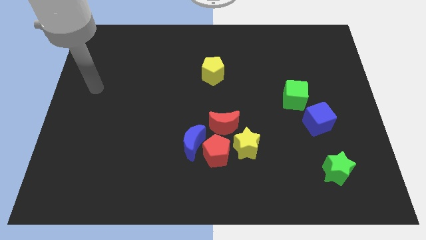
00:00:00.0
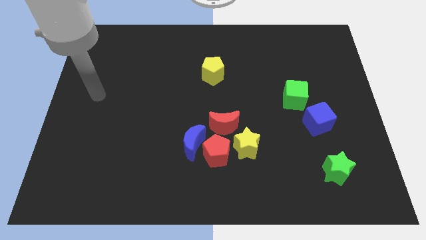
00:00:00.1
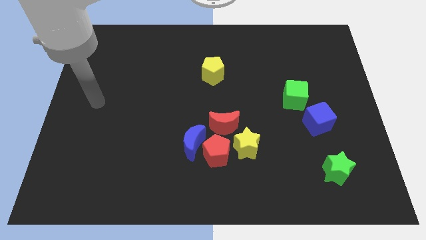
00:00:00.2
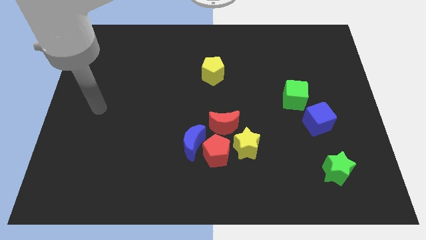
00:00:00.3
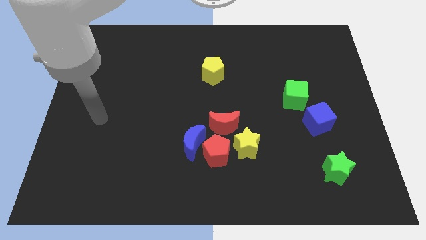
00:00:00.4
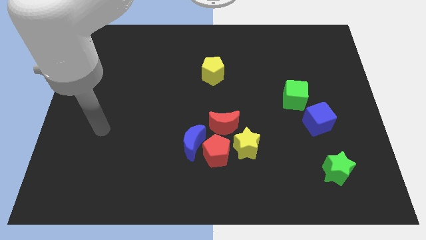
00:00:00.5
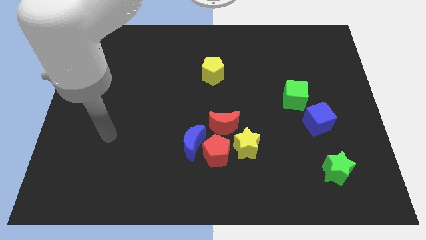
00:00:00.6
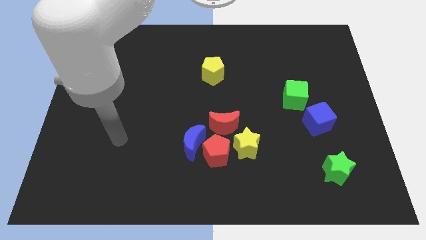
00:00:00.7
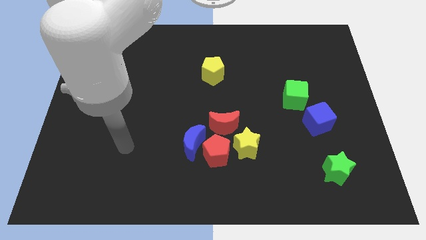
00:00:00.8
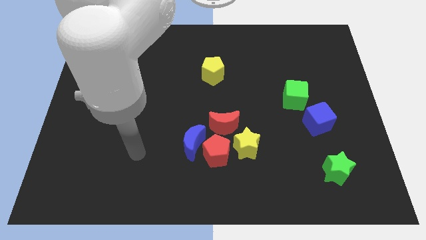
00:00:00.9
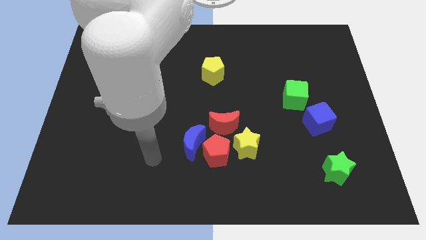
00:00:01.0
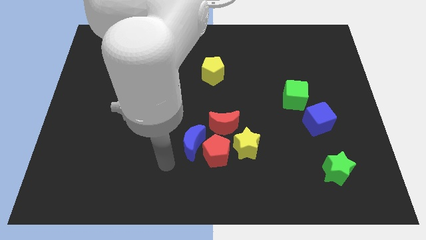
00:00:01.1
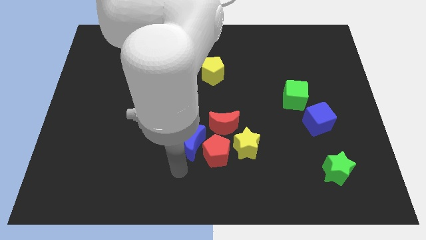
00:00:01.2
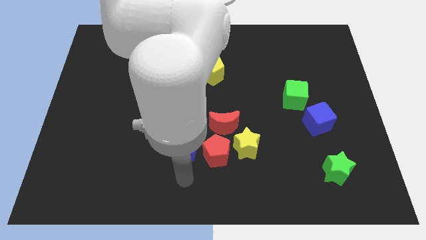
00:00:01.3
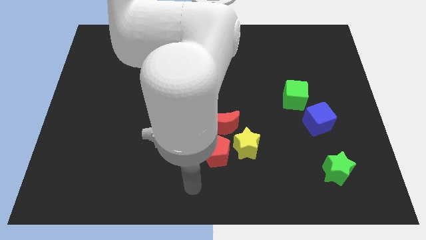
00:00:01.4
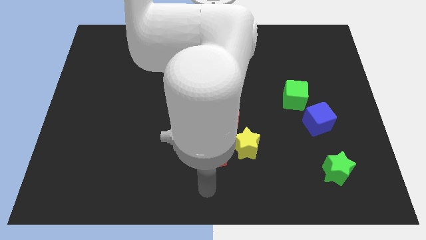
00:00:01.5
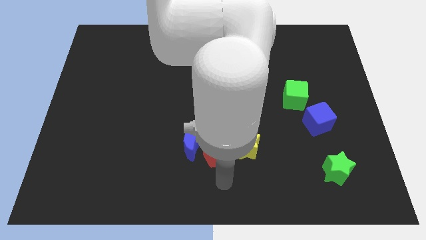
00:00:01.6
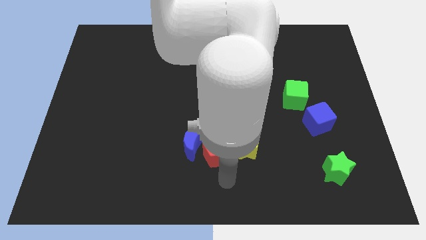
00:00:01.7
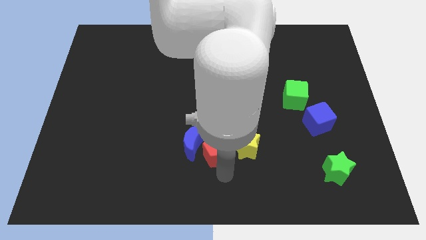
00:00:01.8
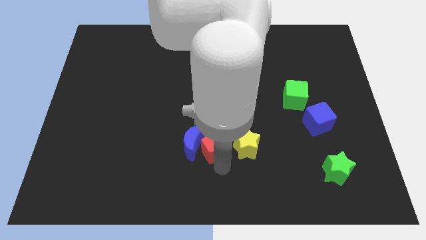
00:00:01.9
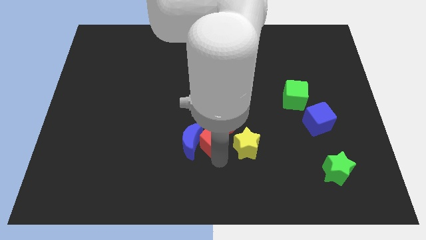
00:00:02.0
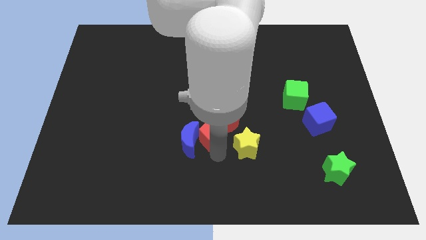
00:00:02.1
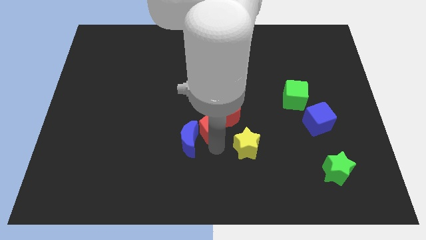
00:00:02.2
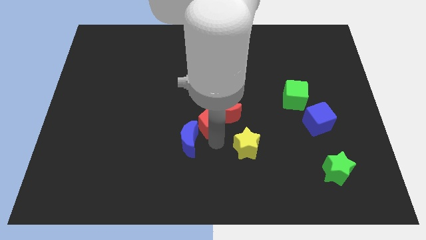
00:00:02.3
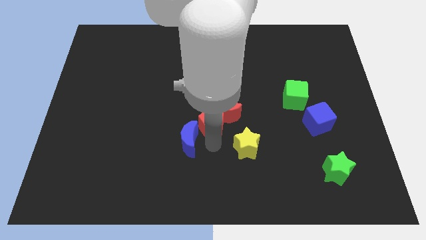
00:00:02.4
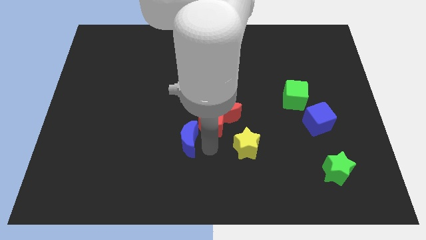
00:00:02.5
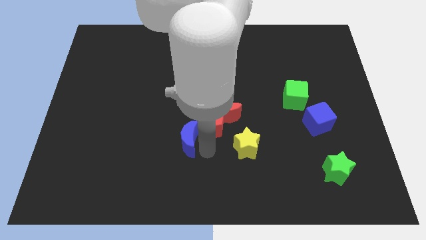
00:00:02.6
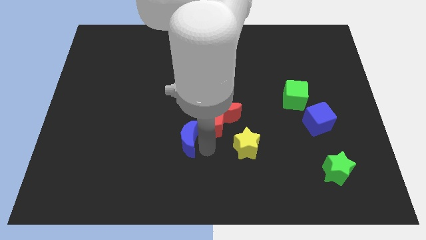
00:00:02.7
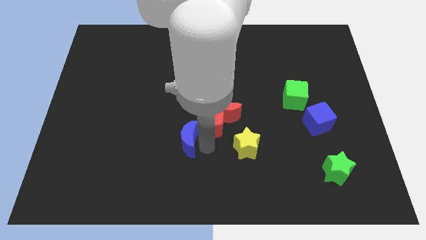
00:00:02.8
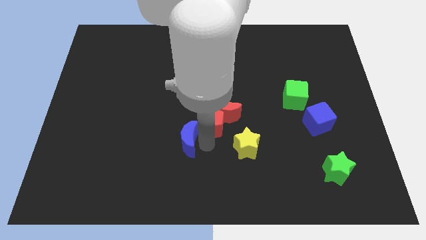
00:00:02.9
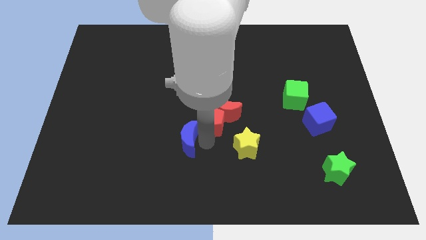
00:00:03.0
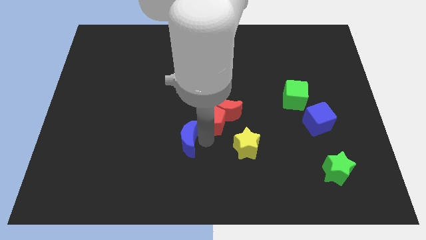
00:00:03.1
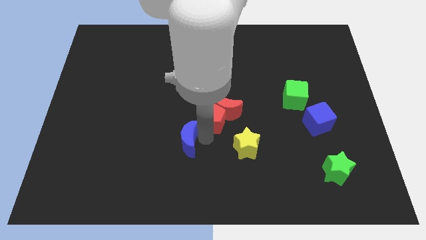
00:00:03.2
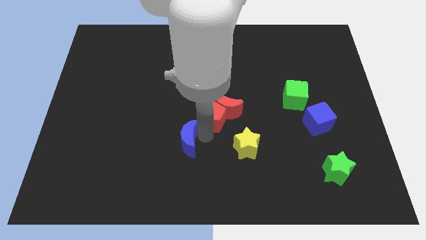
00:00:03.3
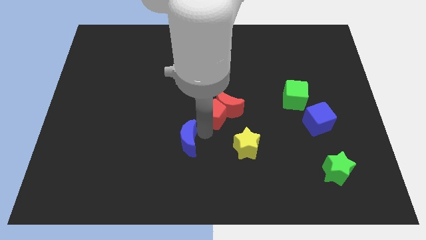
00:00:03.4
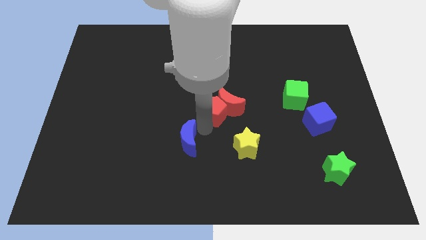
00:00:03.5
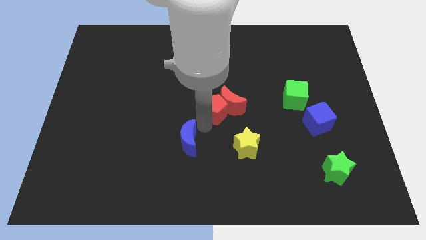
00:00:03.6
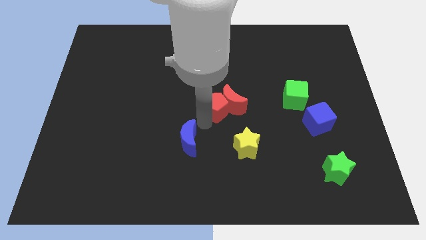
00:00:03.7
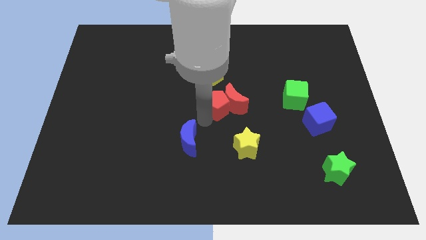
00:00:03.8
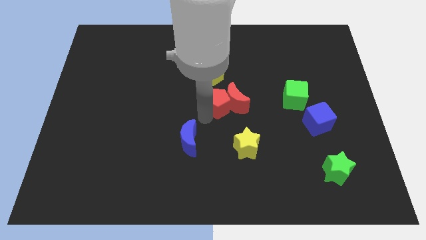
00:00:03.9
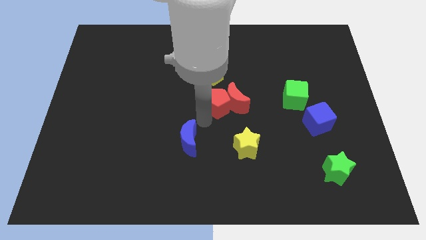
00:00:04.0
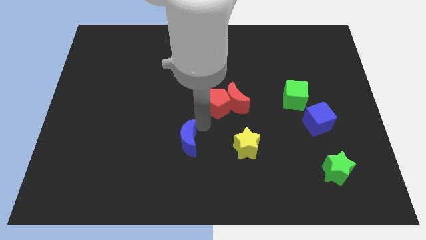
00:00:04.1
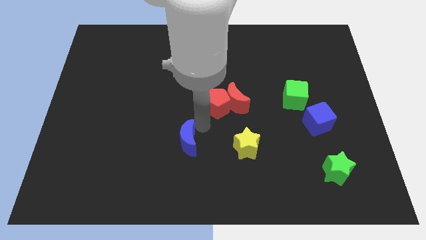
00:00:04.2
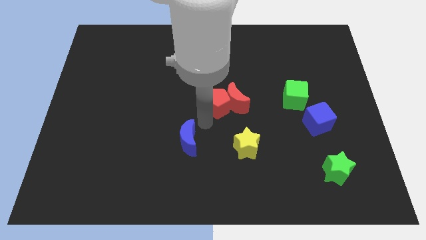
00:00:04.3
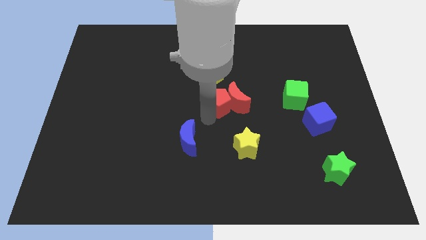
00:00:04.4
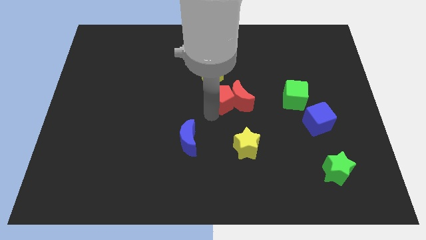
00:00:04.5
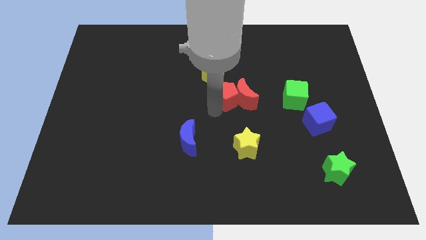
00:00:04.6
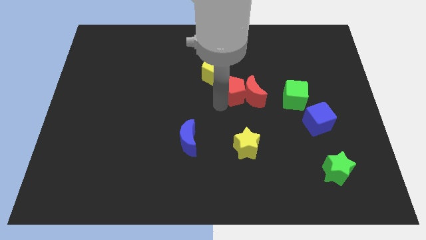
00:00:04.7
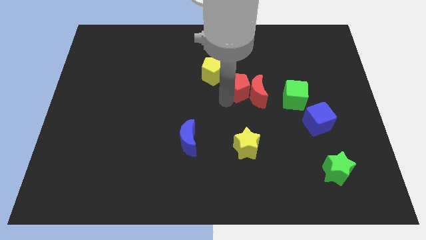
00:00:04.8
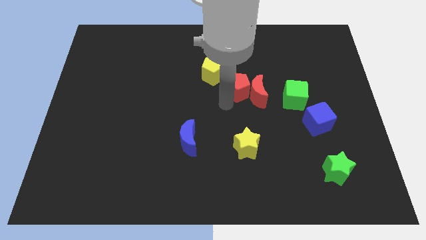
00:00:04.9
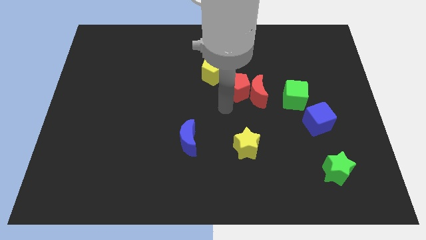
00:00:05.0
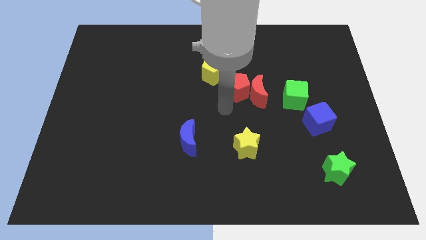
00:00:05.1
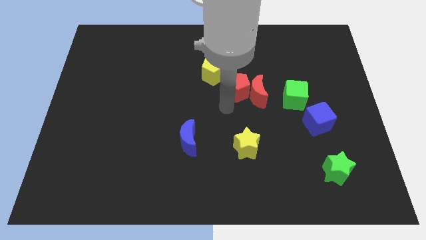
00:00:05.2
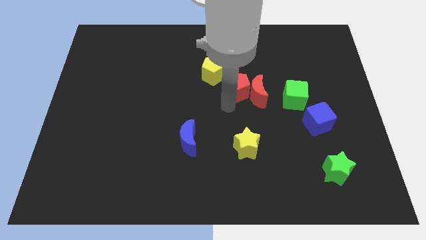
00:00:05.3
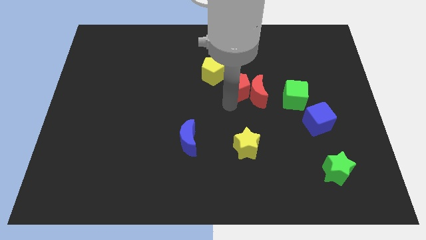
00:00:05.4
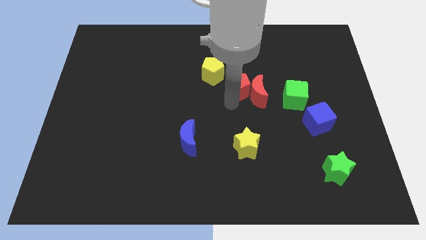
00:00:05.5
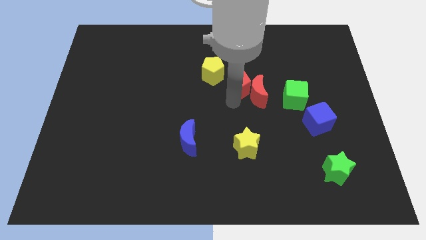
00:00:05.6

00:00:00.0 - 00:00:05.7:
put the red pentagon to the right side of the yellow pentagon
